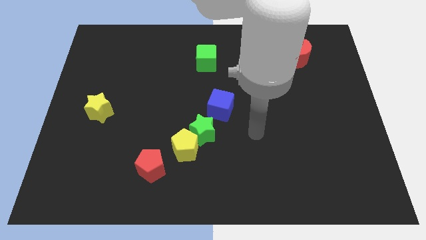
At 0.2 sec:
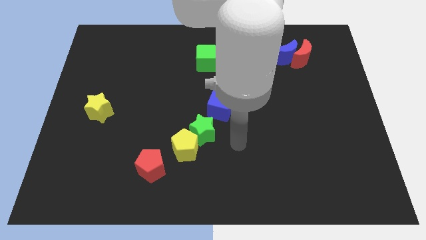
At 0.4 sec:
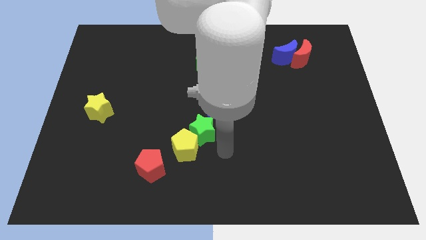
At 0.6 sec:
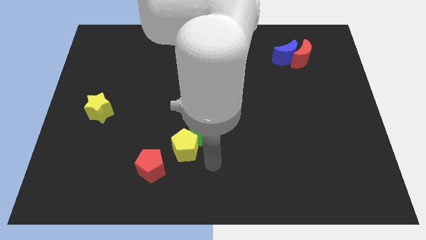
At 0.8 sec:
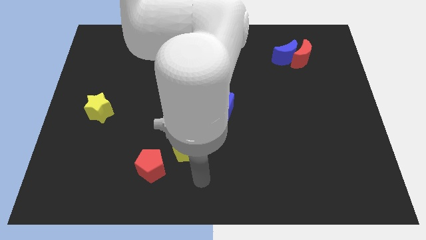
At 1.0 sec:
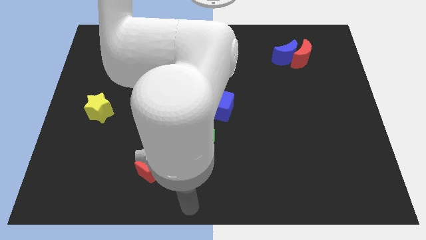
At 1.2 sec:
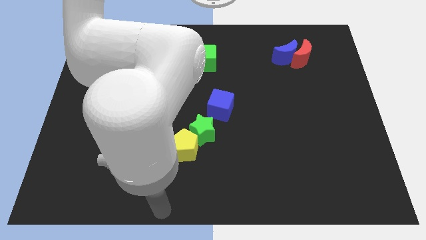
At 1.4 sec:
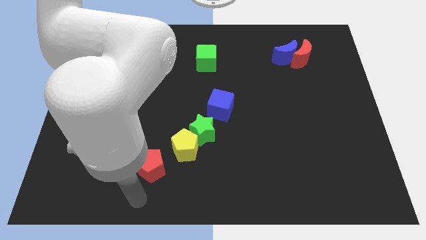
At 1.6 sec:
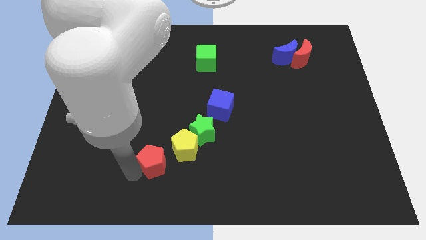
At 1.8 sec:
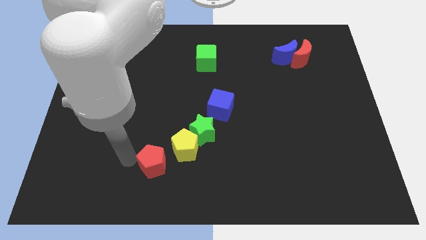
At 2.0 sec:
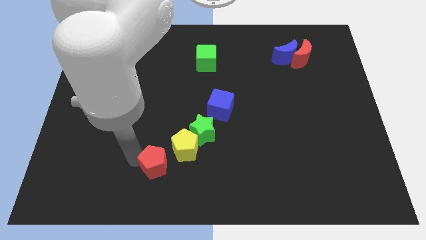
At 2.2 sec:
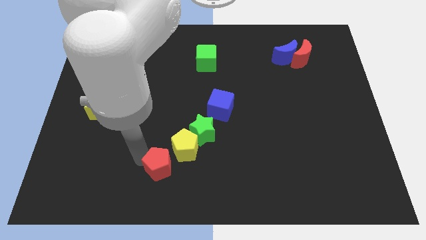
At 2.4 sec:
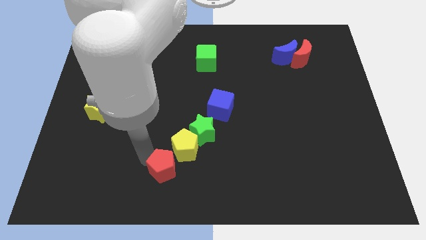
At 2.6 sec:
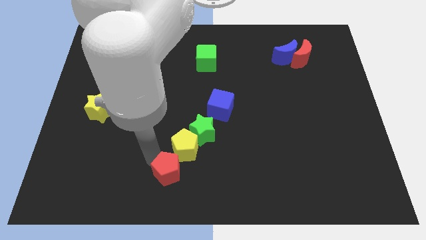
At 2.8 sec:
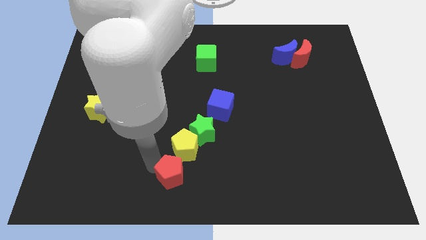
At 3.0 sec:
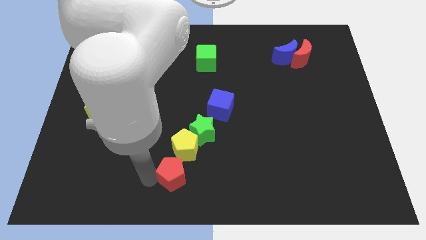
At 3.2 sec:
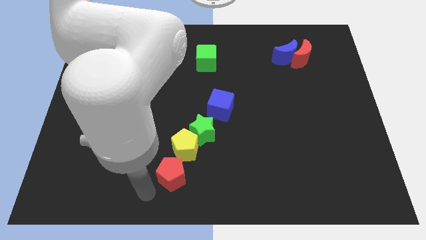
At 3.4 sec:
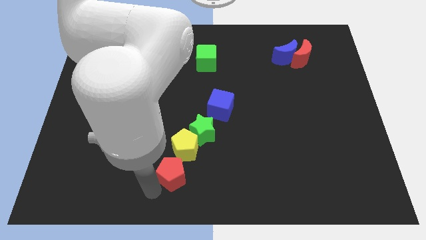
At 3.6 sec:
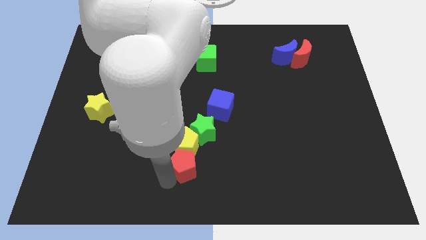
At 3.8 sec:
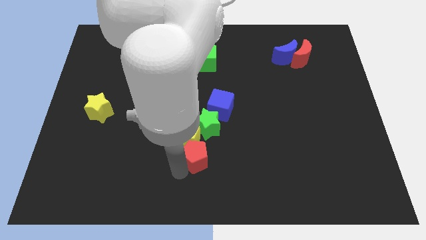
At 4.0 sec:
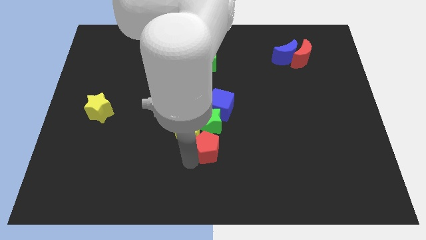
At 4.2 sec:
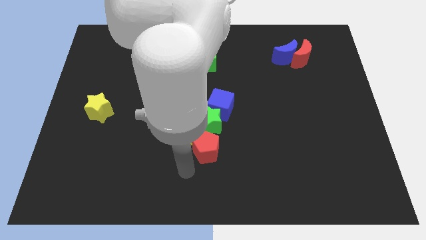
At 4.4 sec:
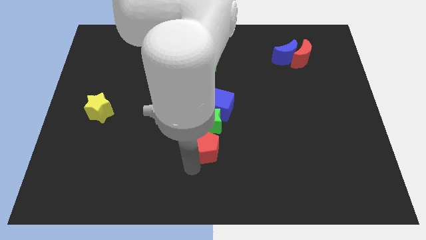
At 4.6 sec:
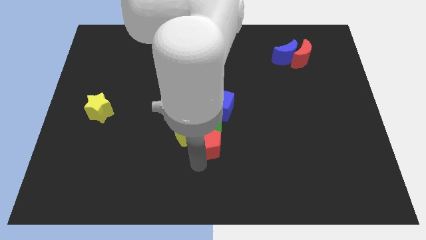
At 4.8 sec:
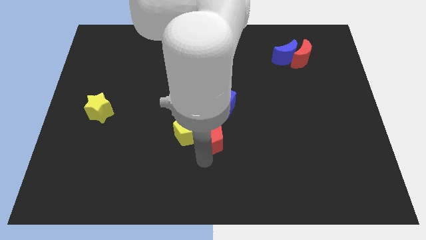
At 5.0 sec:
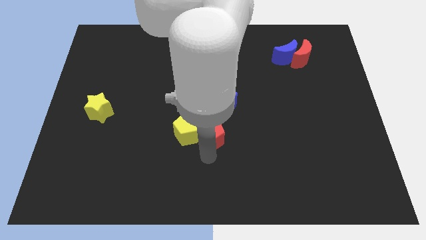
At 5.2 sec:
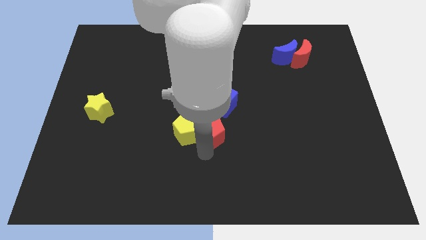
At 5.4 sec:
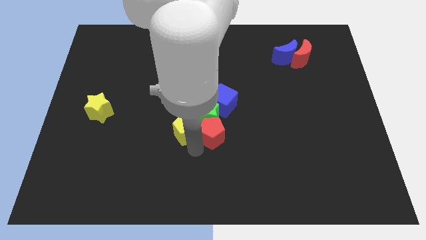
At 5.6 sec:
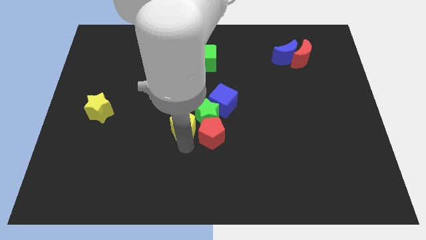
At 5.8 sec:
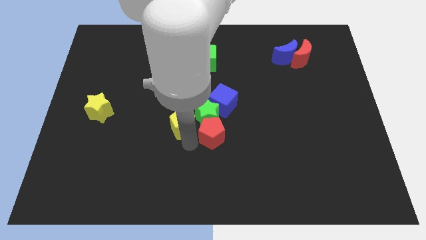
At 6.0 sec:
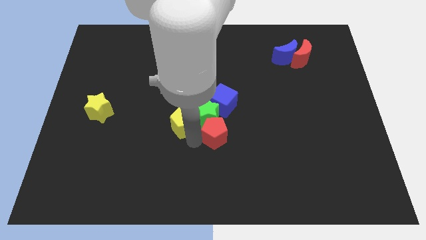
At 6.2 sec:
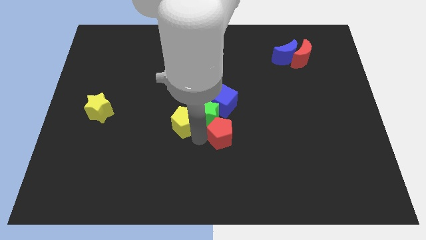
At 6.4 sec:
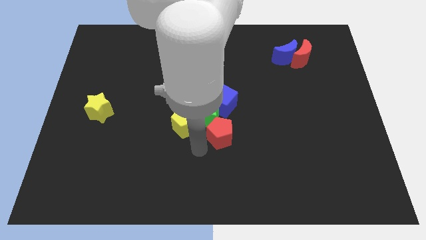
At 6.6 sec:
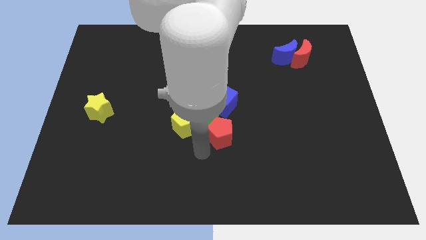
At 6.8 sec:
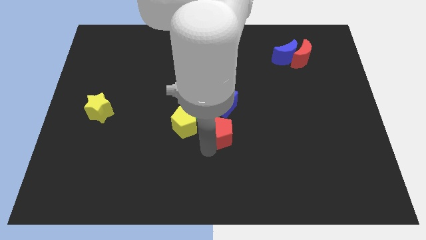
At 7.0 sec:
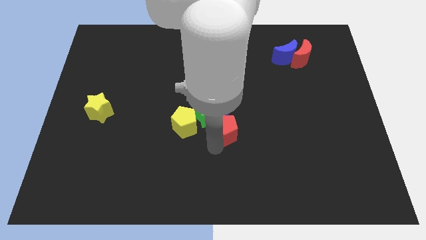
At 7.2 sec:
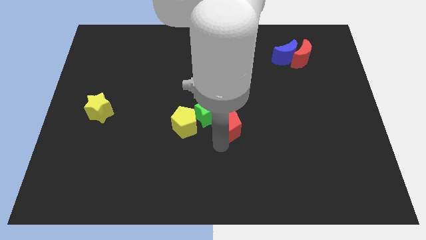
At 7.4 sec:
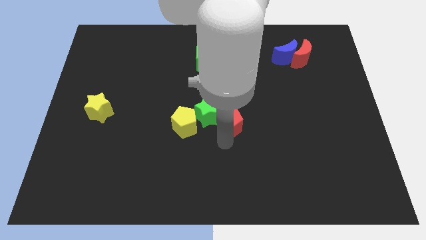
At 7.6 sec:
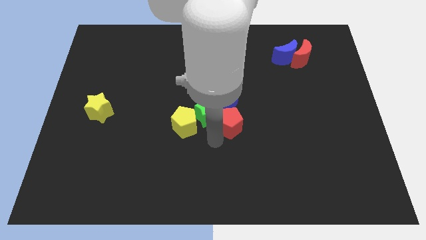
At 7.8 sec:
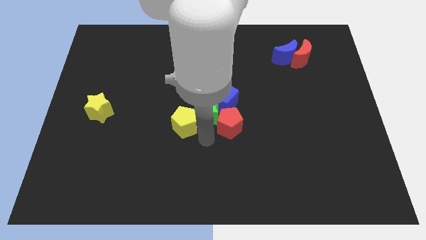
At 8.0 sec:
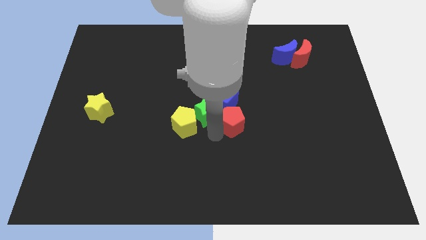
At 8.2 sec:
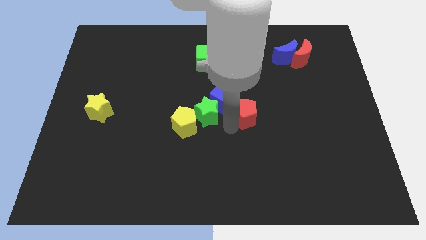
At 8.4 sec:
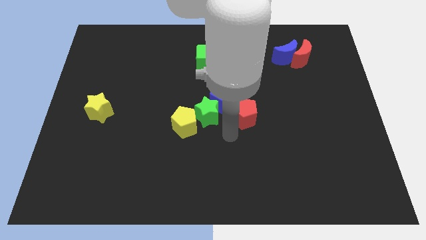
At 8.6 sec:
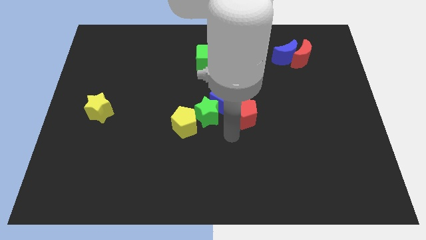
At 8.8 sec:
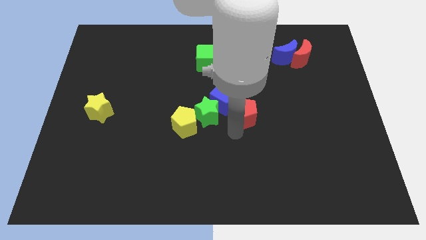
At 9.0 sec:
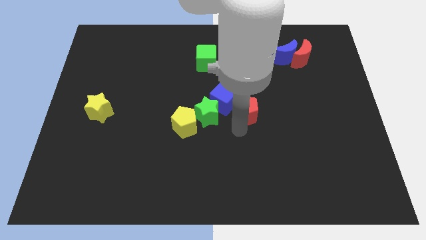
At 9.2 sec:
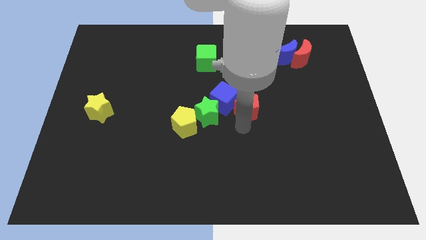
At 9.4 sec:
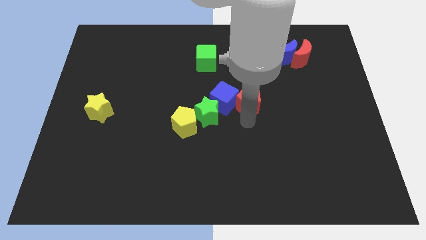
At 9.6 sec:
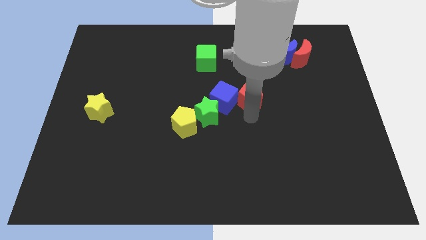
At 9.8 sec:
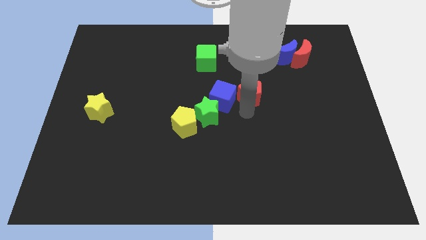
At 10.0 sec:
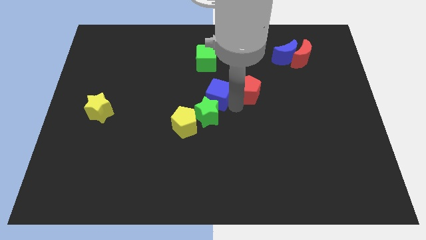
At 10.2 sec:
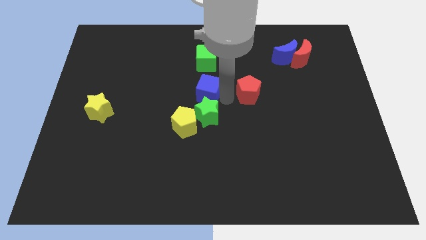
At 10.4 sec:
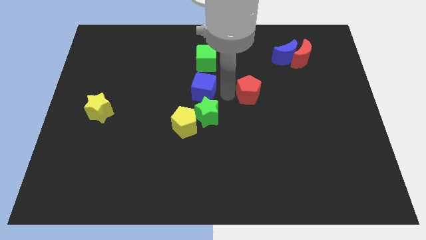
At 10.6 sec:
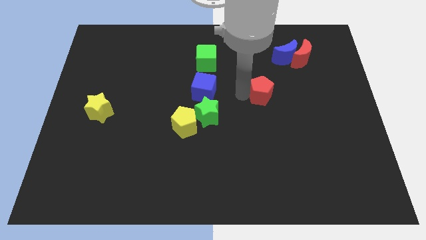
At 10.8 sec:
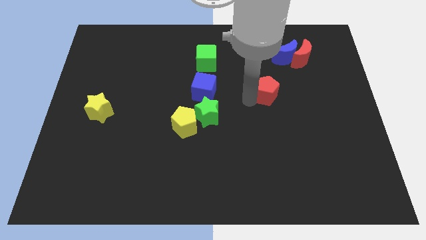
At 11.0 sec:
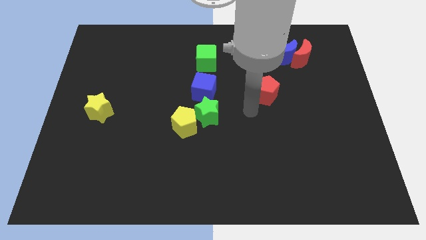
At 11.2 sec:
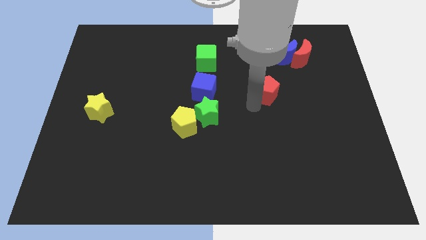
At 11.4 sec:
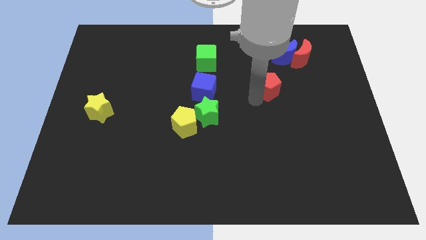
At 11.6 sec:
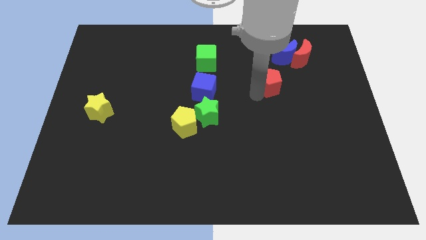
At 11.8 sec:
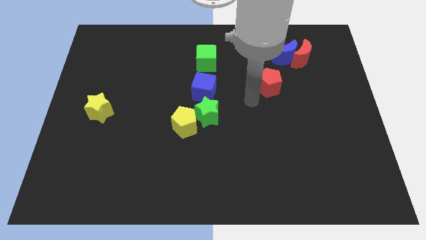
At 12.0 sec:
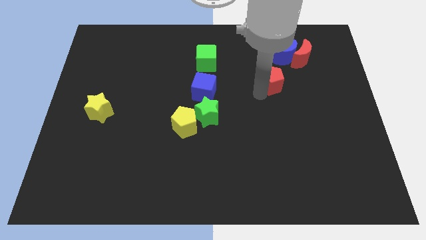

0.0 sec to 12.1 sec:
move the red pentagon diagonally down and to the left of the red moon

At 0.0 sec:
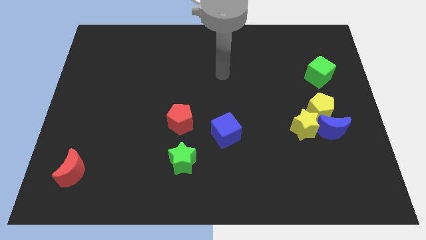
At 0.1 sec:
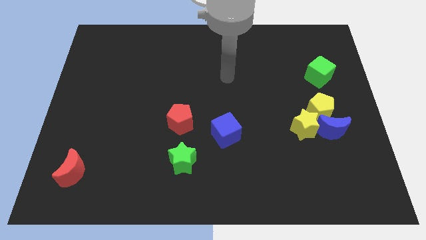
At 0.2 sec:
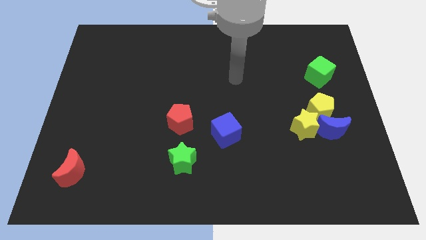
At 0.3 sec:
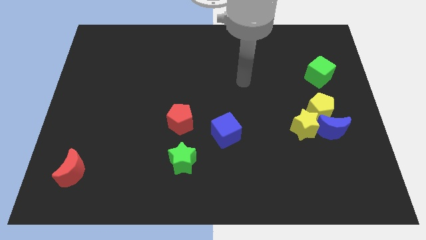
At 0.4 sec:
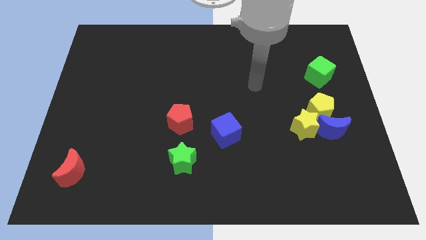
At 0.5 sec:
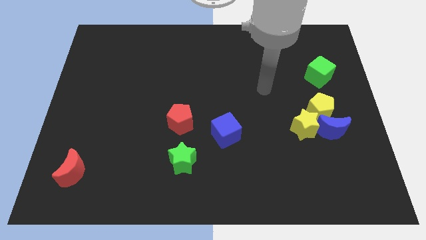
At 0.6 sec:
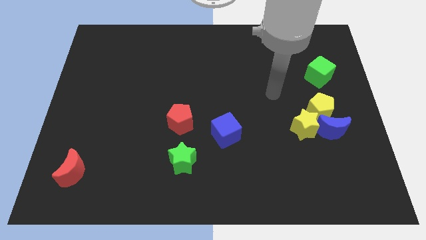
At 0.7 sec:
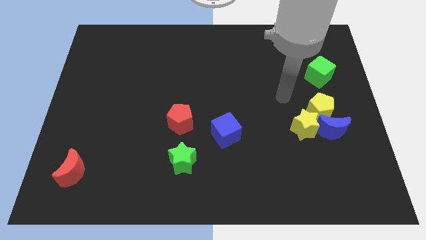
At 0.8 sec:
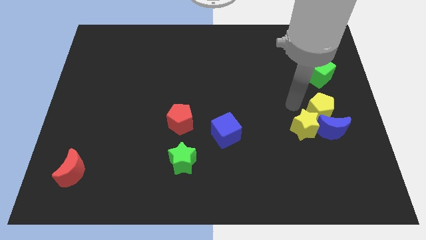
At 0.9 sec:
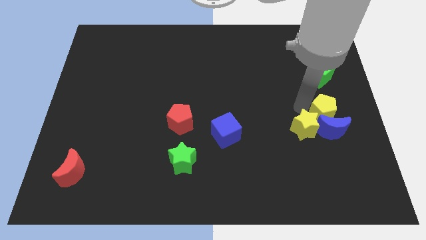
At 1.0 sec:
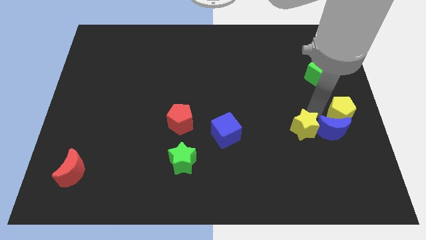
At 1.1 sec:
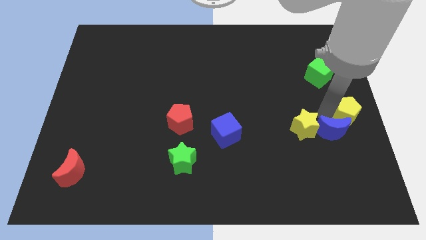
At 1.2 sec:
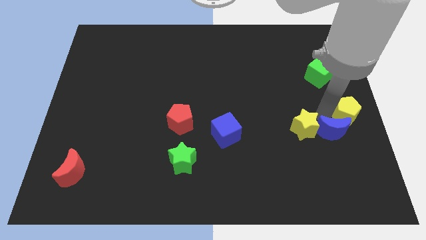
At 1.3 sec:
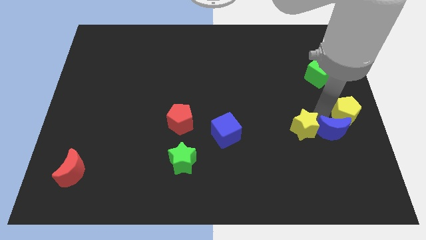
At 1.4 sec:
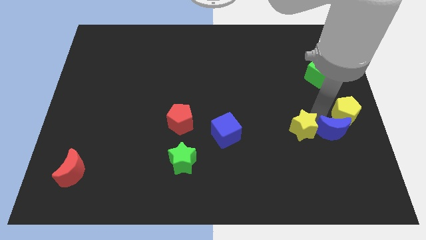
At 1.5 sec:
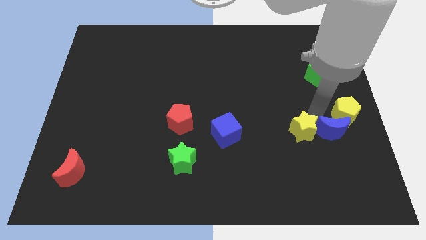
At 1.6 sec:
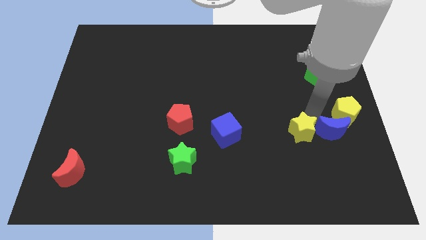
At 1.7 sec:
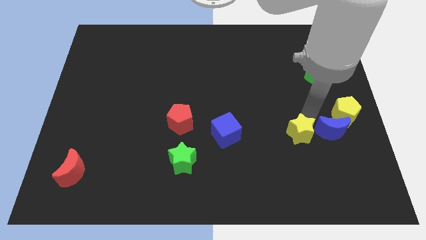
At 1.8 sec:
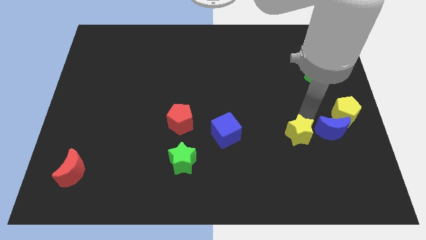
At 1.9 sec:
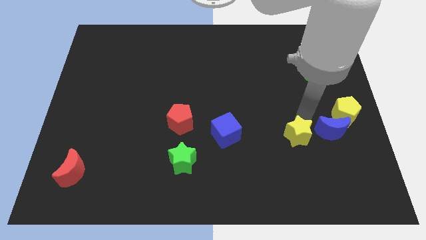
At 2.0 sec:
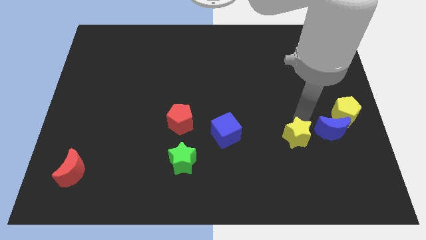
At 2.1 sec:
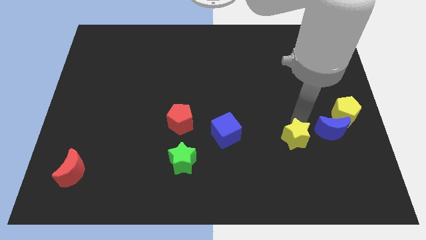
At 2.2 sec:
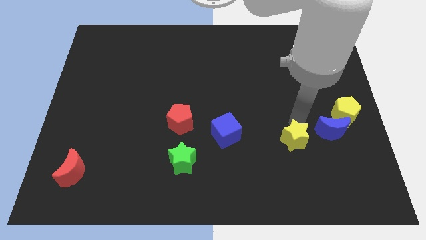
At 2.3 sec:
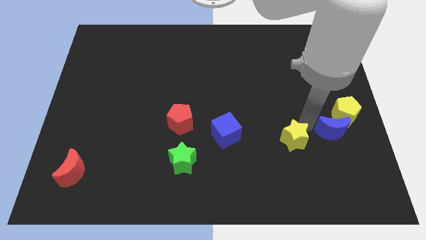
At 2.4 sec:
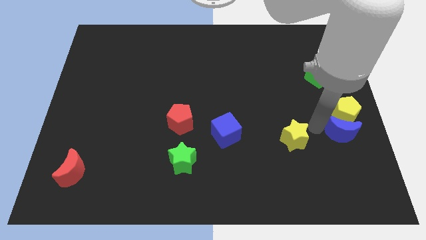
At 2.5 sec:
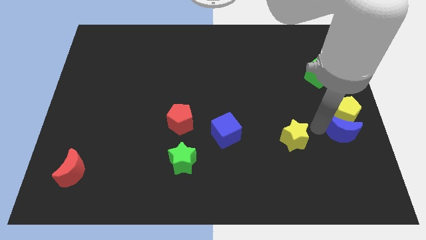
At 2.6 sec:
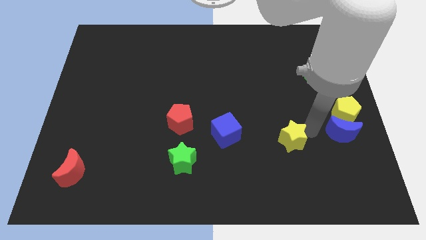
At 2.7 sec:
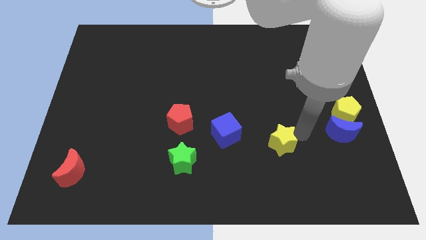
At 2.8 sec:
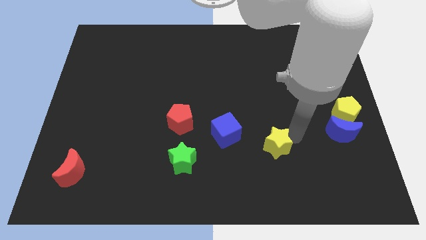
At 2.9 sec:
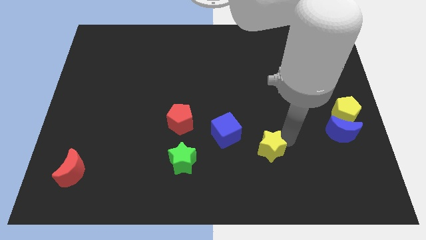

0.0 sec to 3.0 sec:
move the yellow star to the bottom right side of the blue cube
